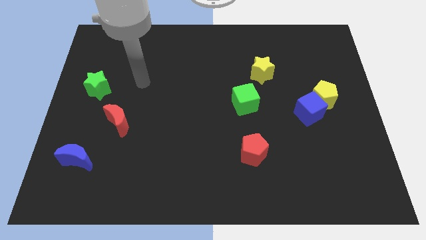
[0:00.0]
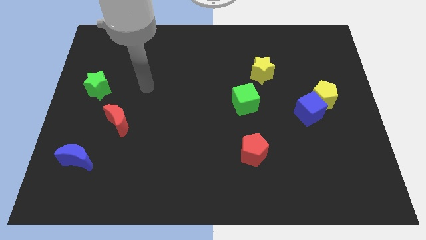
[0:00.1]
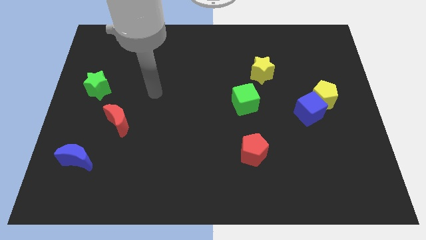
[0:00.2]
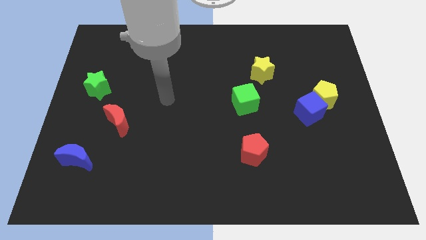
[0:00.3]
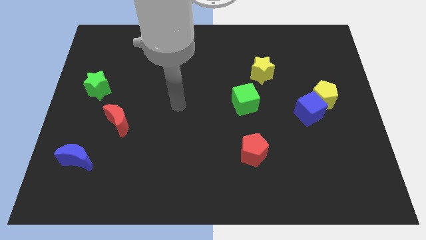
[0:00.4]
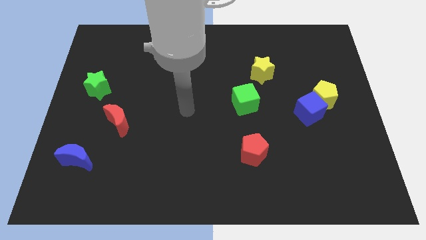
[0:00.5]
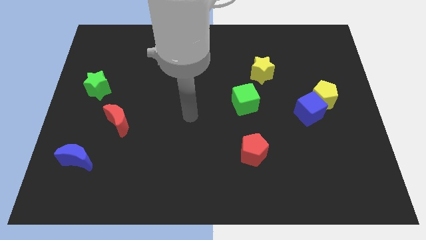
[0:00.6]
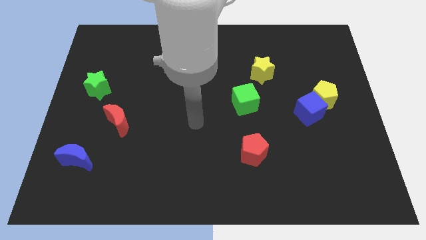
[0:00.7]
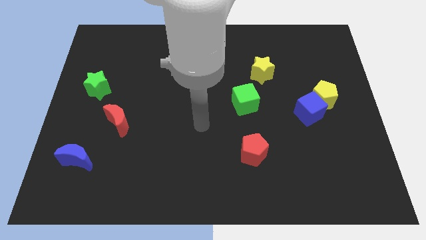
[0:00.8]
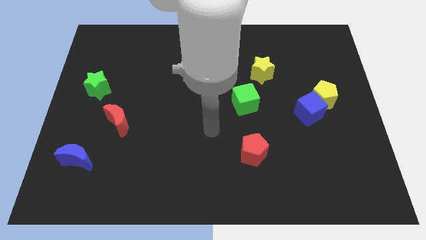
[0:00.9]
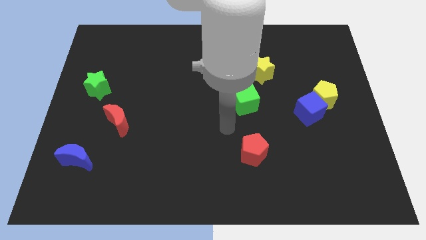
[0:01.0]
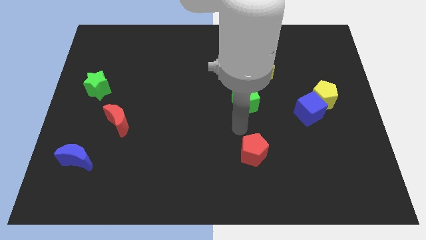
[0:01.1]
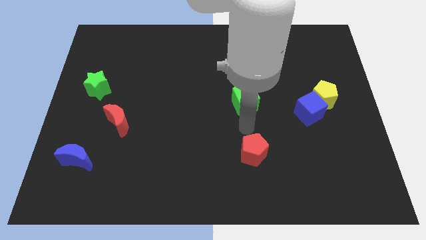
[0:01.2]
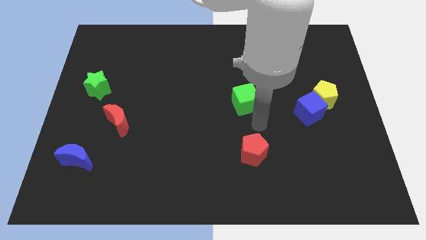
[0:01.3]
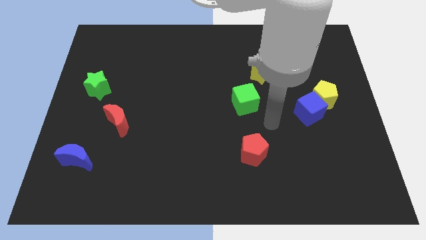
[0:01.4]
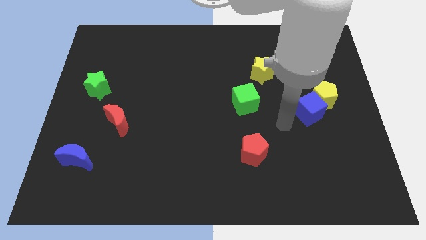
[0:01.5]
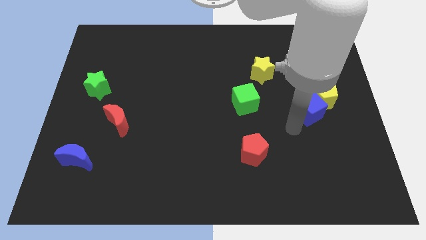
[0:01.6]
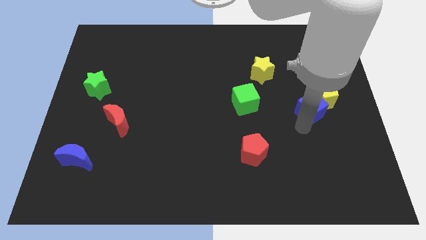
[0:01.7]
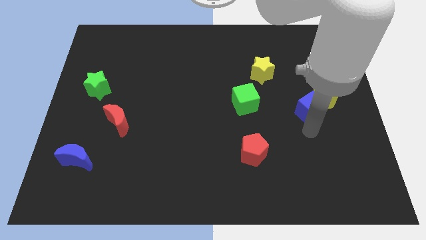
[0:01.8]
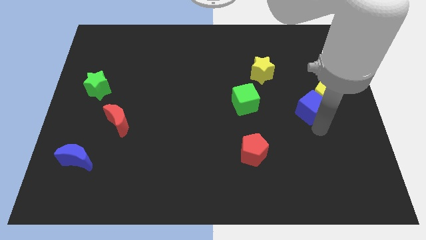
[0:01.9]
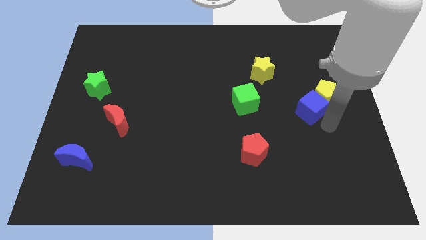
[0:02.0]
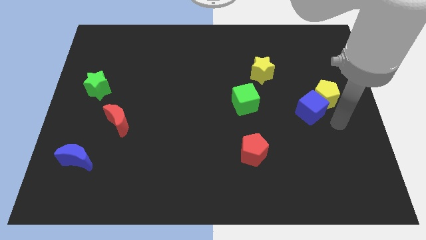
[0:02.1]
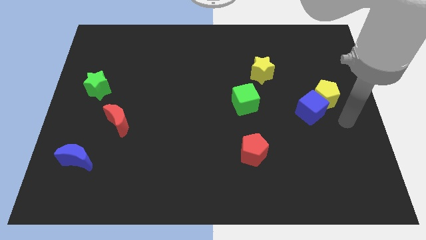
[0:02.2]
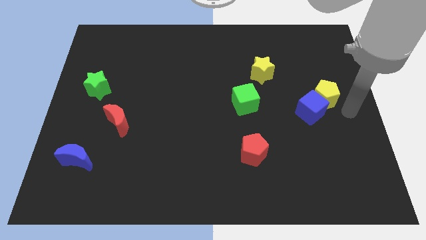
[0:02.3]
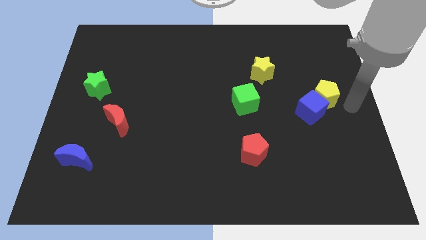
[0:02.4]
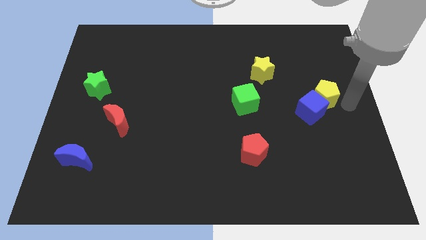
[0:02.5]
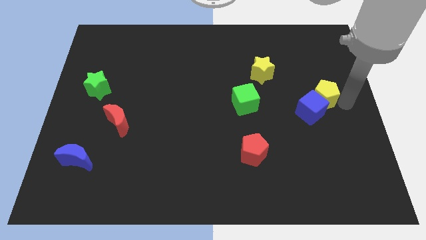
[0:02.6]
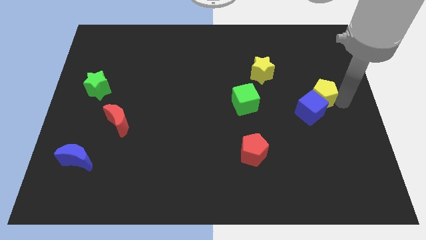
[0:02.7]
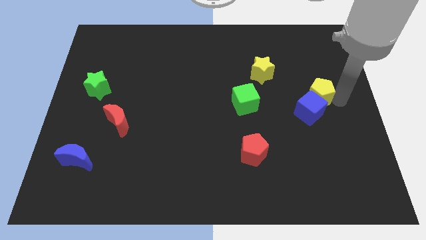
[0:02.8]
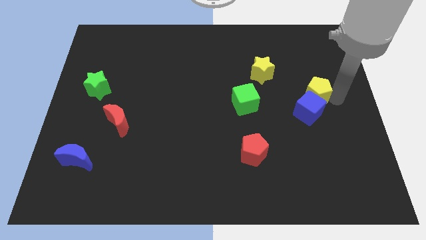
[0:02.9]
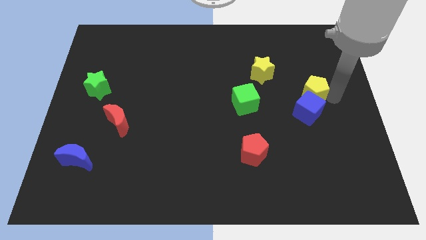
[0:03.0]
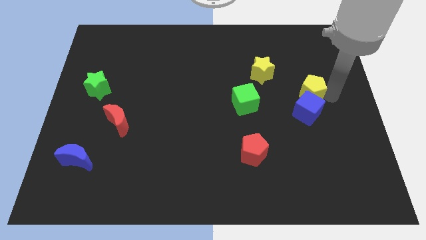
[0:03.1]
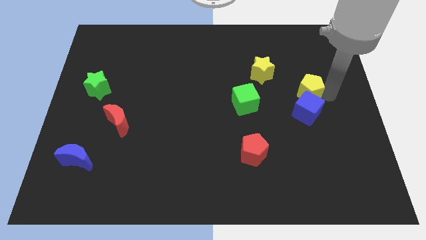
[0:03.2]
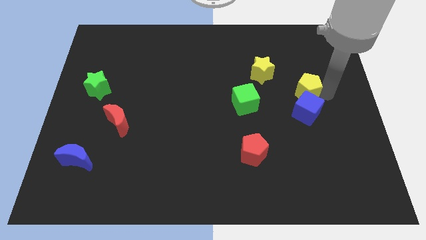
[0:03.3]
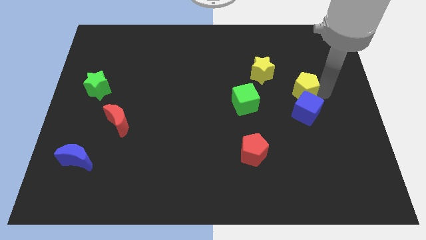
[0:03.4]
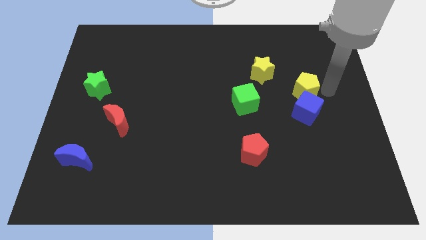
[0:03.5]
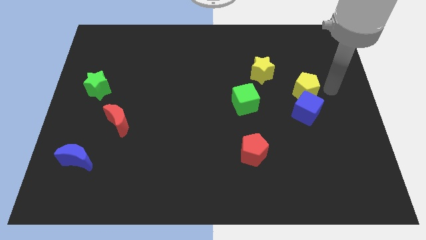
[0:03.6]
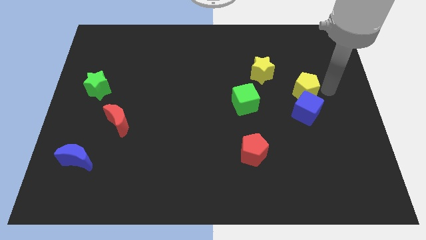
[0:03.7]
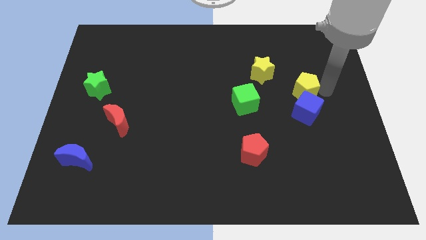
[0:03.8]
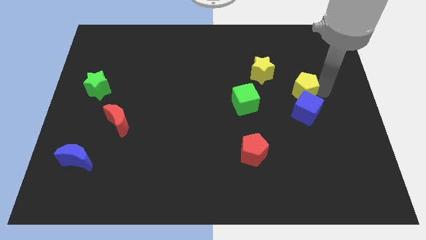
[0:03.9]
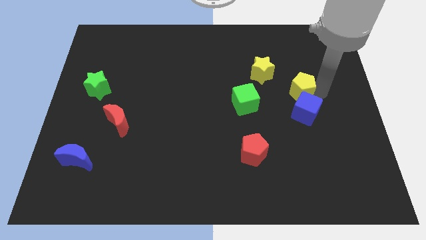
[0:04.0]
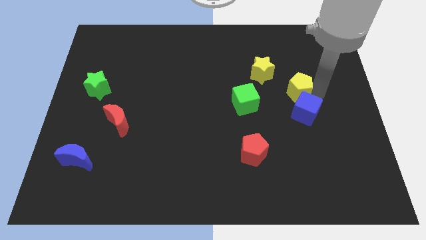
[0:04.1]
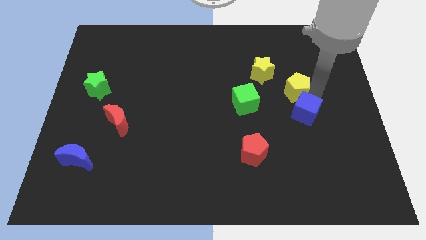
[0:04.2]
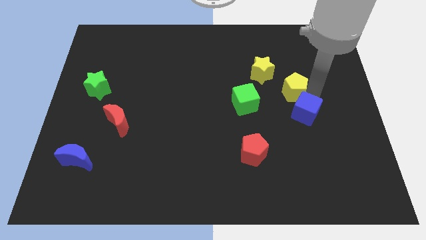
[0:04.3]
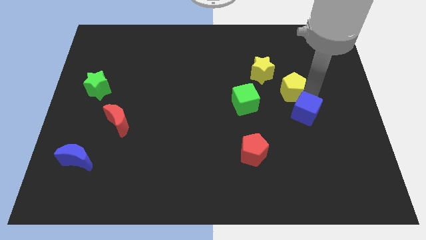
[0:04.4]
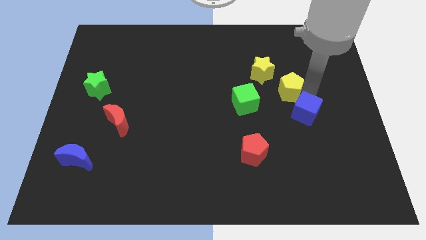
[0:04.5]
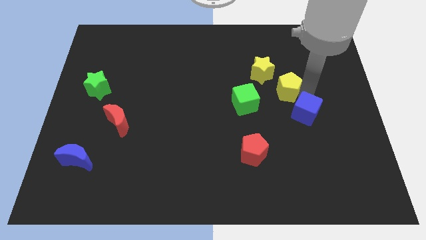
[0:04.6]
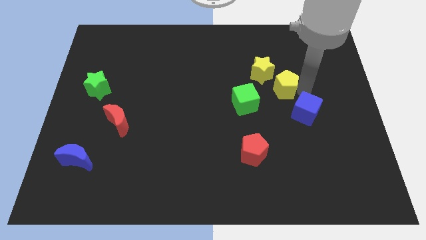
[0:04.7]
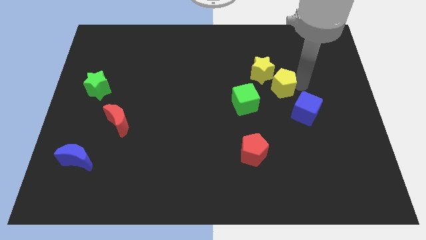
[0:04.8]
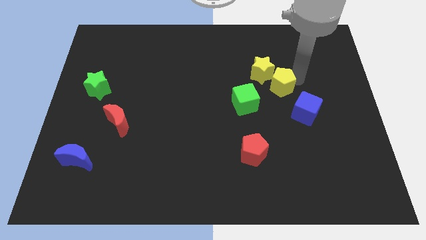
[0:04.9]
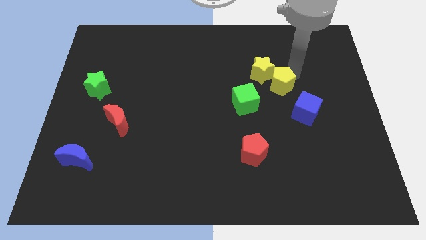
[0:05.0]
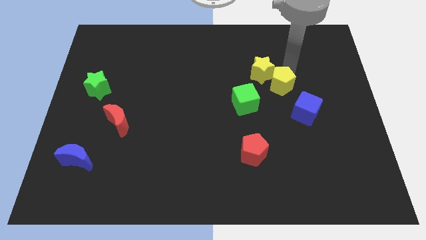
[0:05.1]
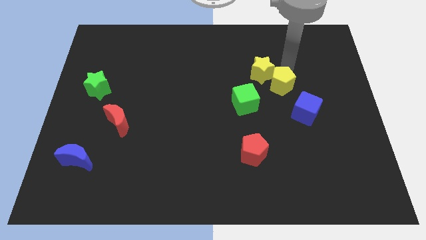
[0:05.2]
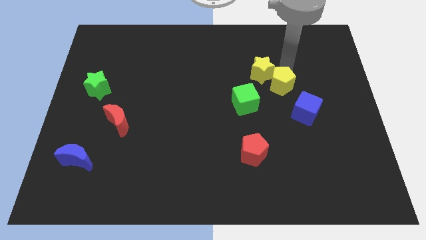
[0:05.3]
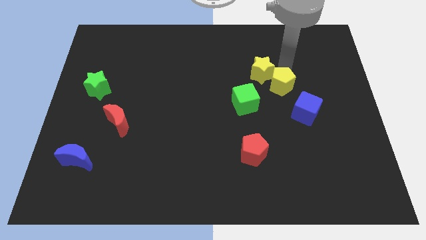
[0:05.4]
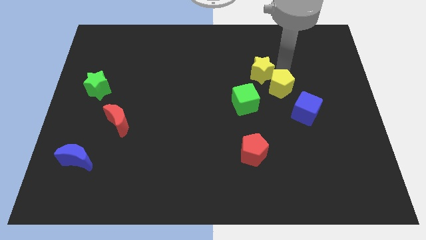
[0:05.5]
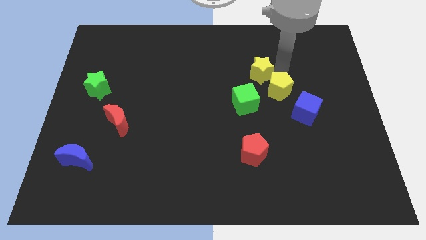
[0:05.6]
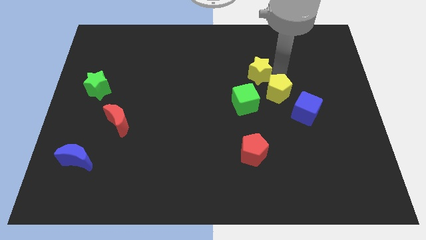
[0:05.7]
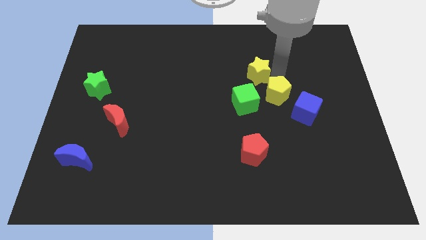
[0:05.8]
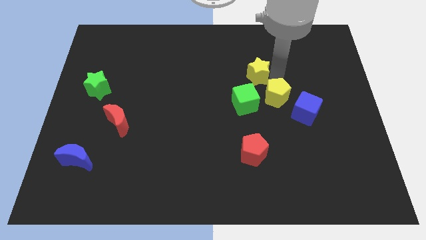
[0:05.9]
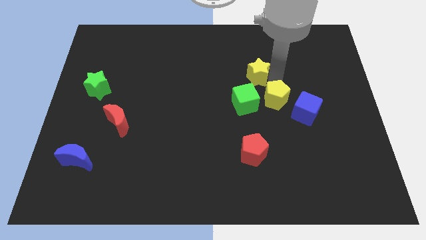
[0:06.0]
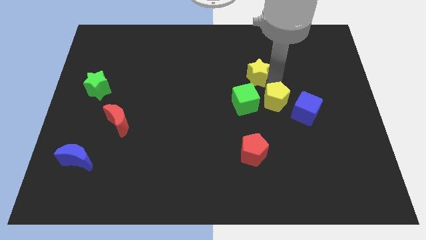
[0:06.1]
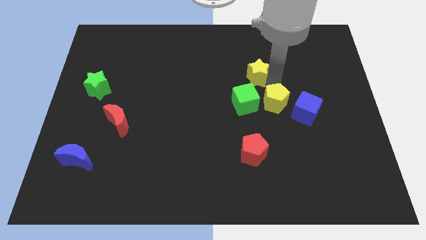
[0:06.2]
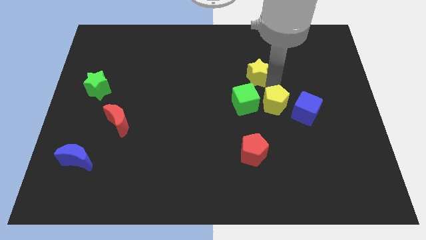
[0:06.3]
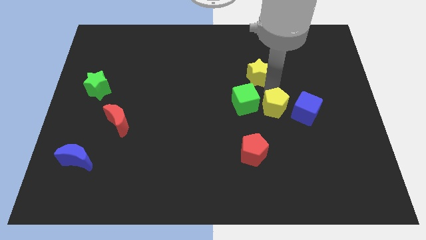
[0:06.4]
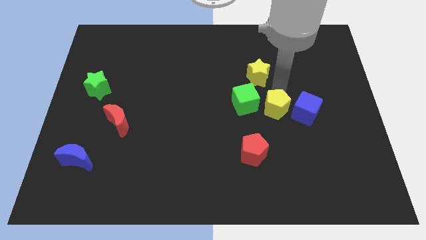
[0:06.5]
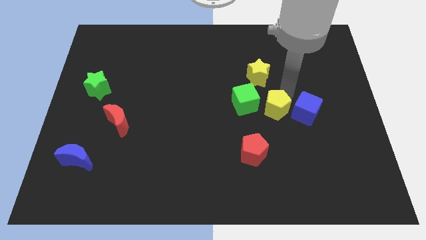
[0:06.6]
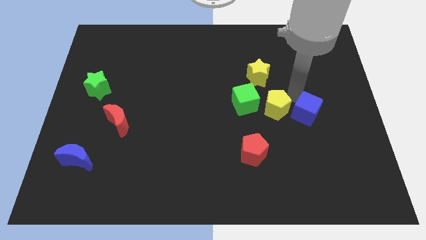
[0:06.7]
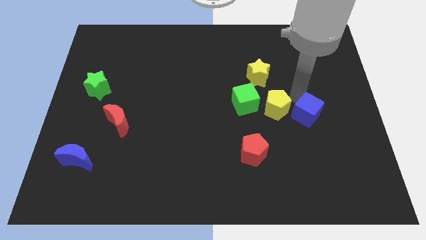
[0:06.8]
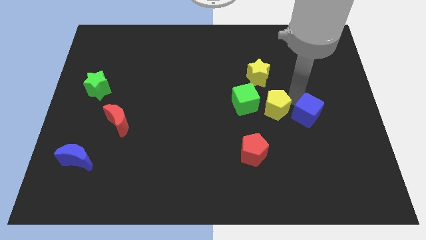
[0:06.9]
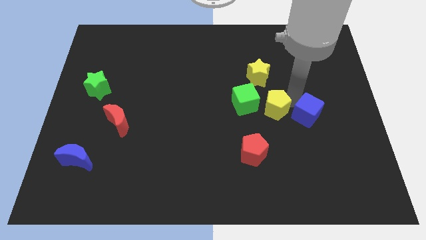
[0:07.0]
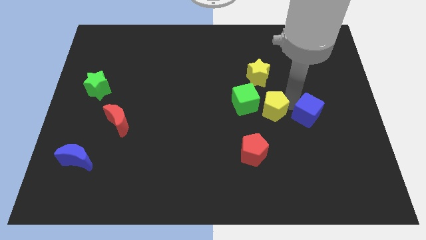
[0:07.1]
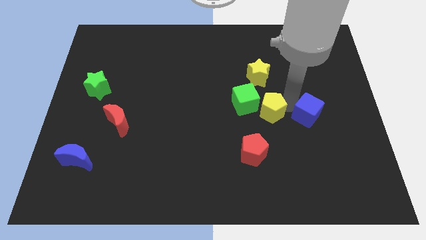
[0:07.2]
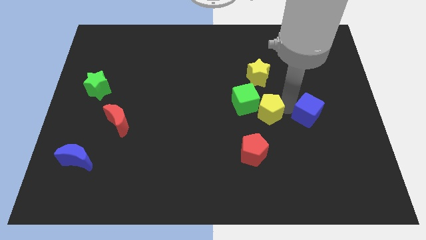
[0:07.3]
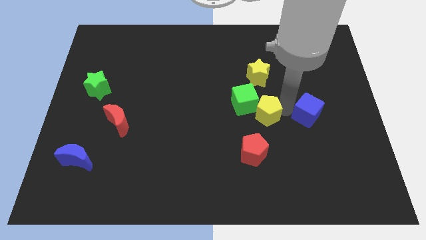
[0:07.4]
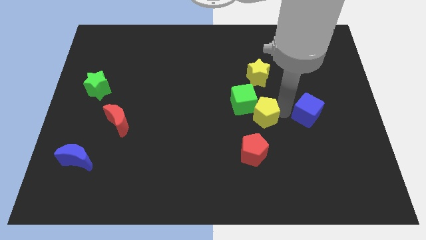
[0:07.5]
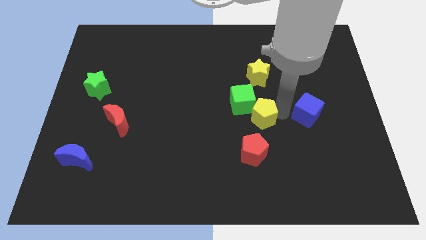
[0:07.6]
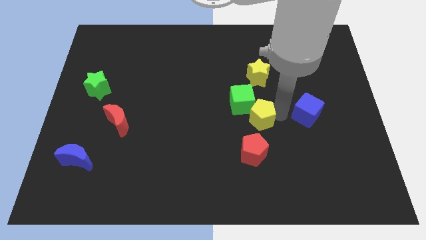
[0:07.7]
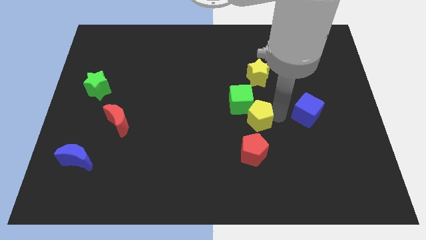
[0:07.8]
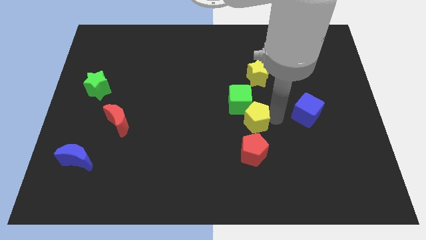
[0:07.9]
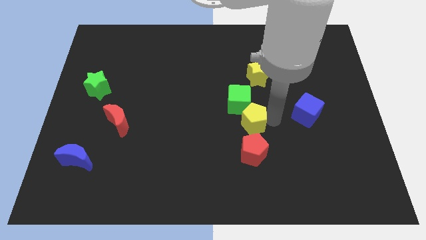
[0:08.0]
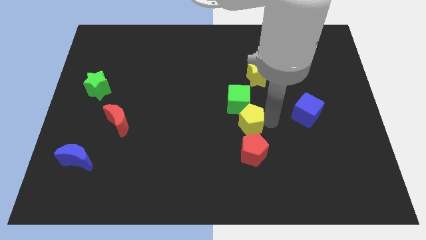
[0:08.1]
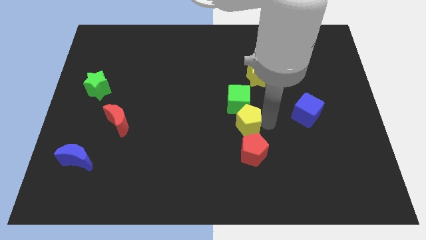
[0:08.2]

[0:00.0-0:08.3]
slide the yellow pentagon to the top left side of the red pentagon
